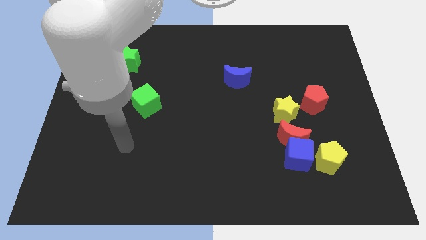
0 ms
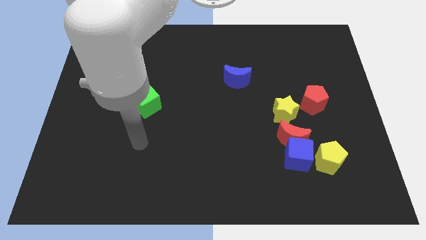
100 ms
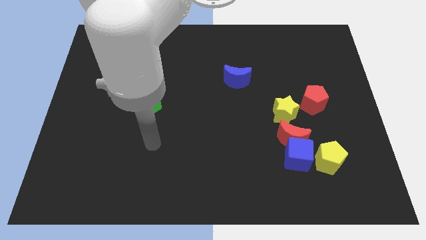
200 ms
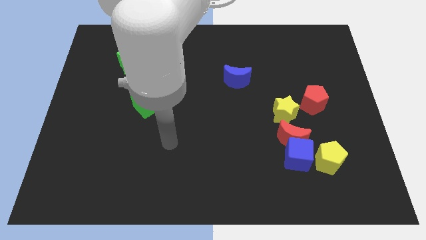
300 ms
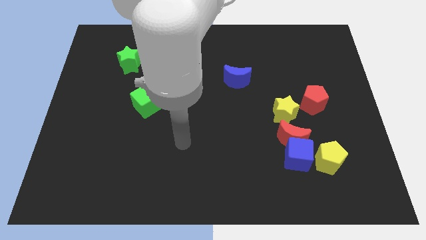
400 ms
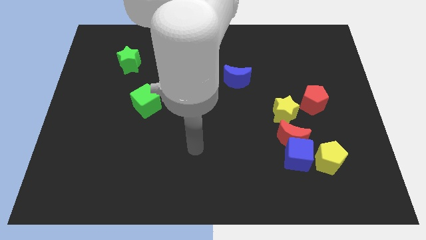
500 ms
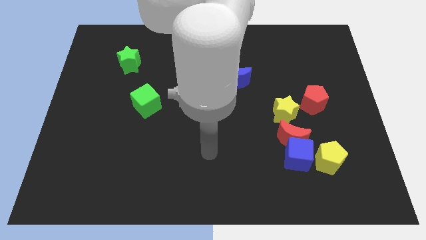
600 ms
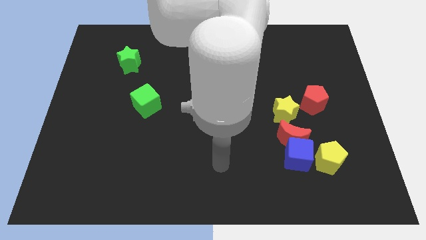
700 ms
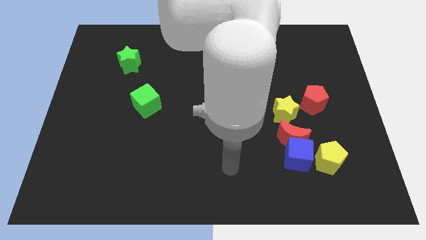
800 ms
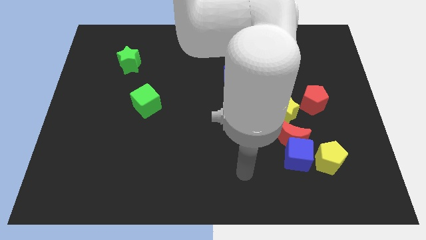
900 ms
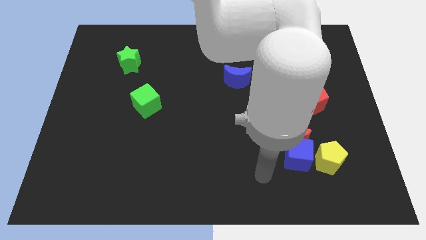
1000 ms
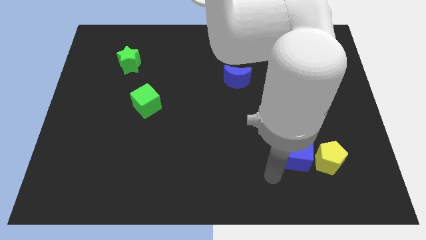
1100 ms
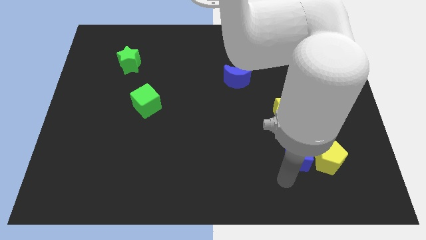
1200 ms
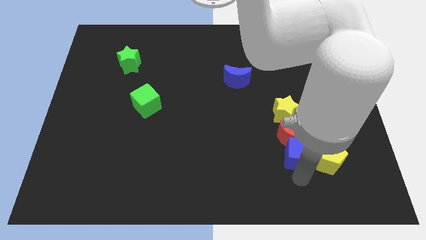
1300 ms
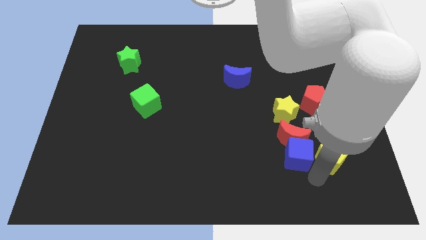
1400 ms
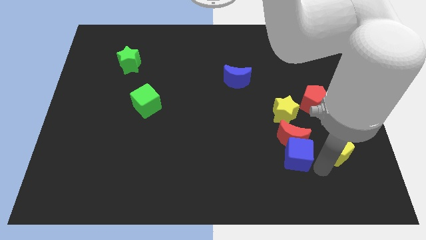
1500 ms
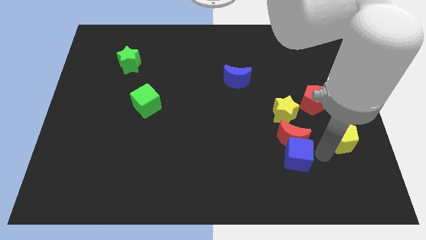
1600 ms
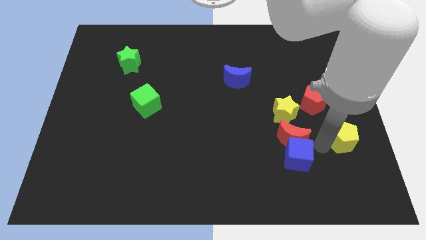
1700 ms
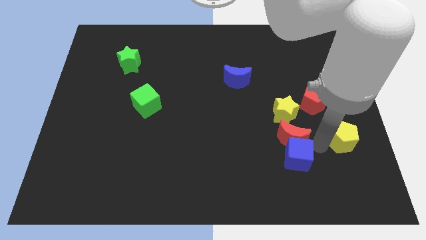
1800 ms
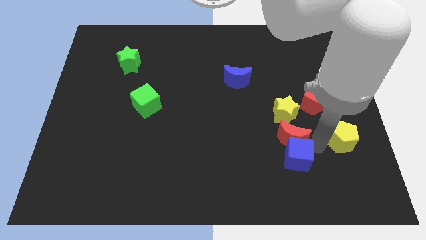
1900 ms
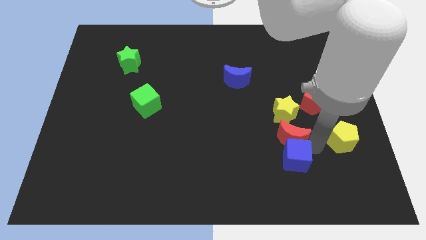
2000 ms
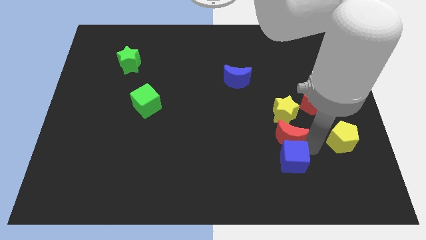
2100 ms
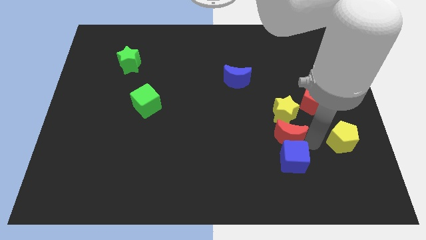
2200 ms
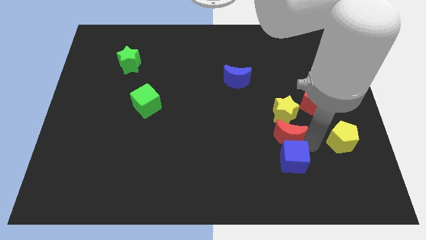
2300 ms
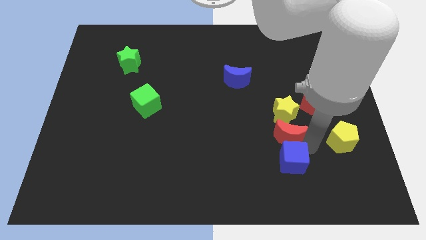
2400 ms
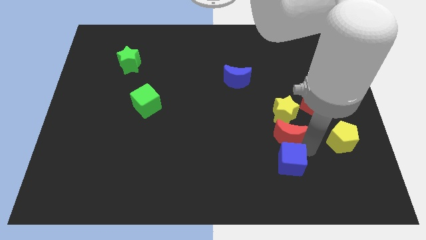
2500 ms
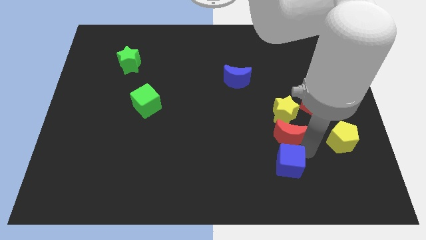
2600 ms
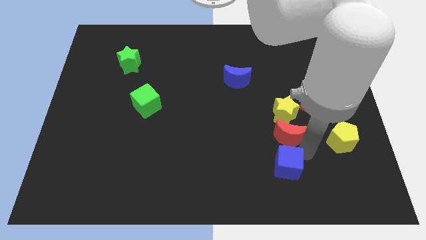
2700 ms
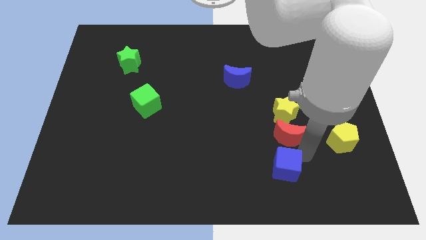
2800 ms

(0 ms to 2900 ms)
pull the blue cube apart from the red moon and yellow pentagon

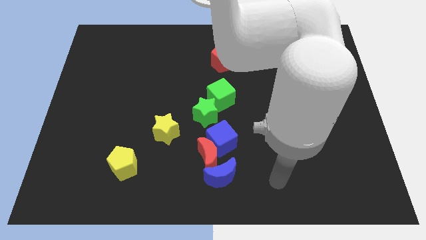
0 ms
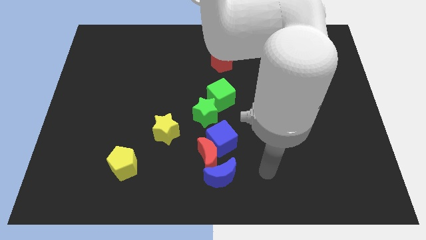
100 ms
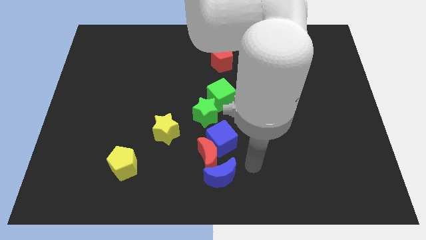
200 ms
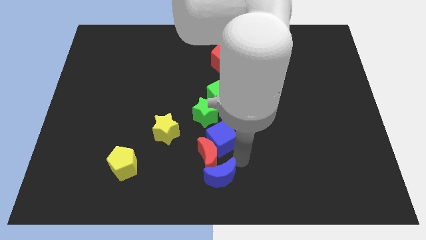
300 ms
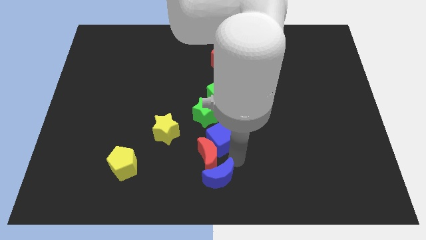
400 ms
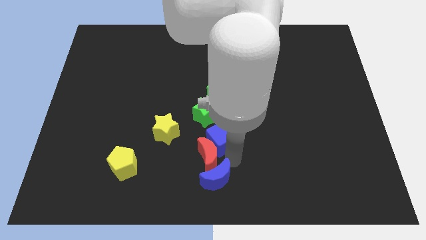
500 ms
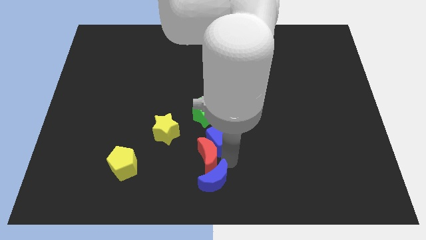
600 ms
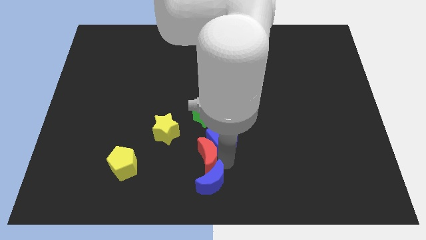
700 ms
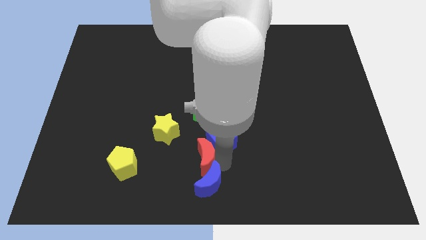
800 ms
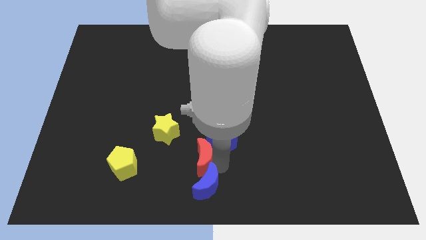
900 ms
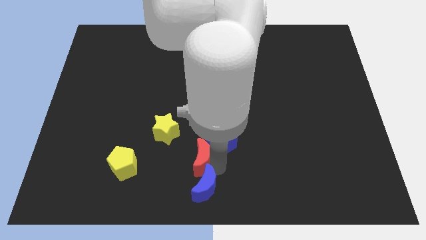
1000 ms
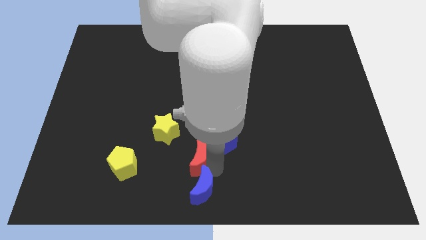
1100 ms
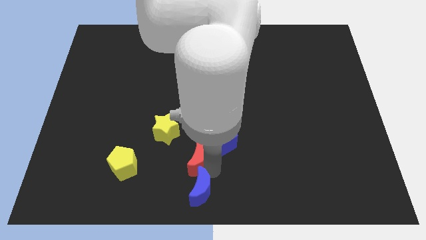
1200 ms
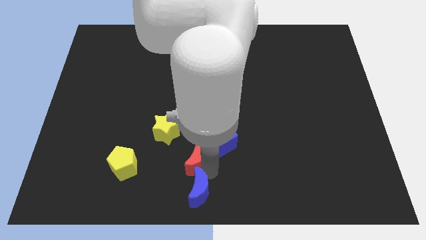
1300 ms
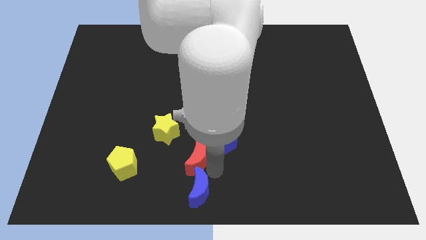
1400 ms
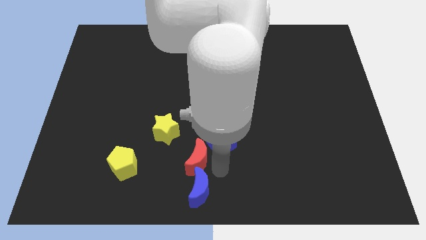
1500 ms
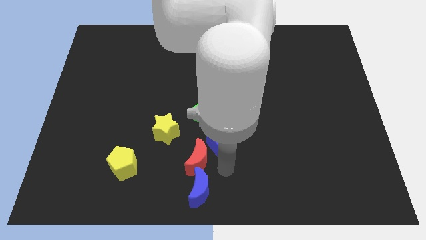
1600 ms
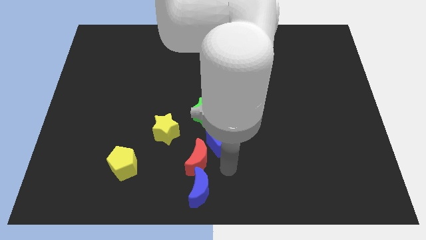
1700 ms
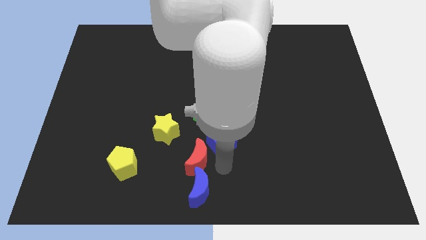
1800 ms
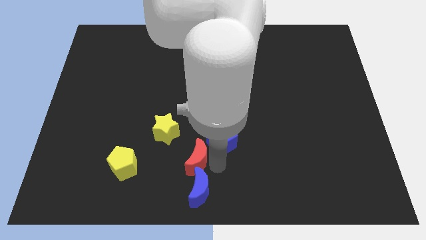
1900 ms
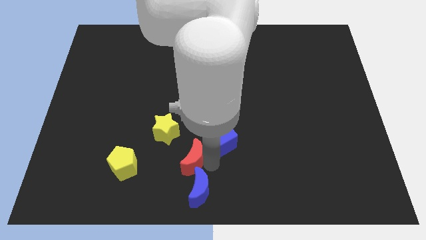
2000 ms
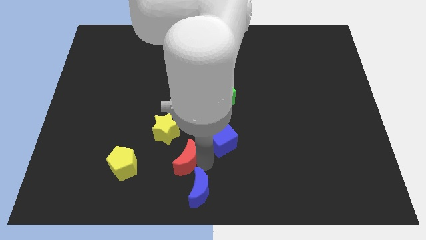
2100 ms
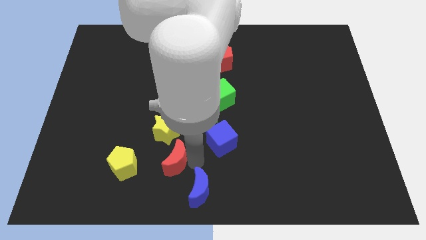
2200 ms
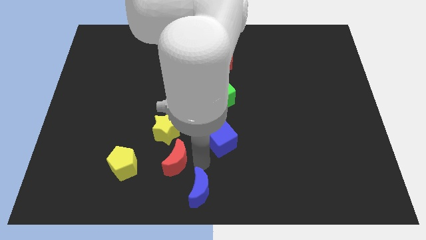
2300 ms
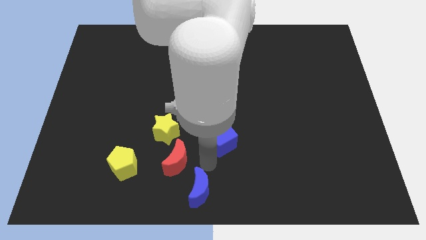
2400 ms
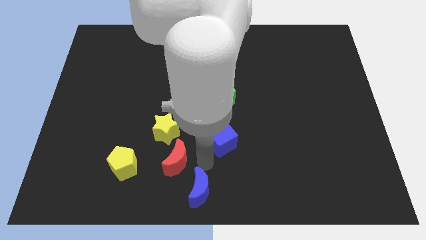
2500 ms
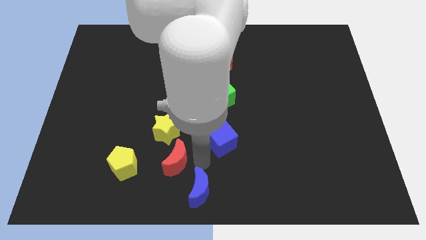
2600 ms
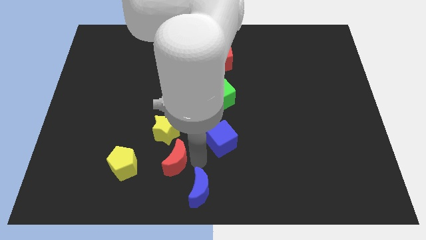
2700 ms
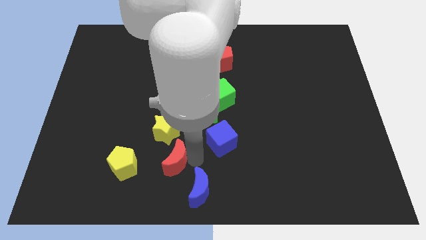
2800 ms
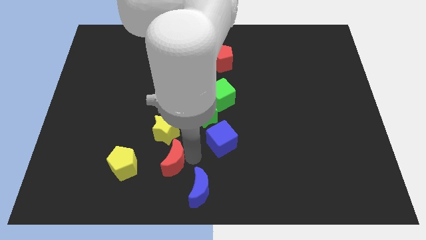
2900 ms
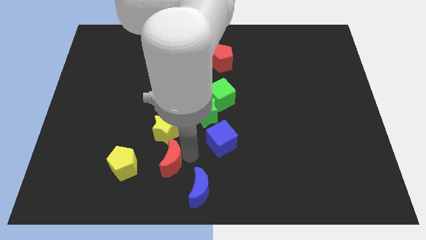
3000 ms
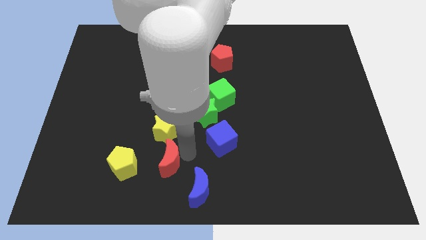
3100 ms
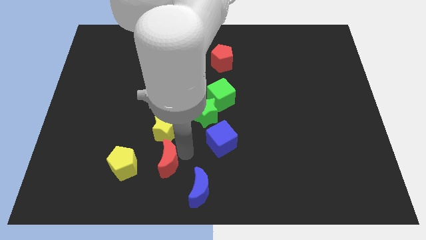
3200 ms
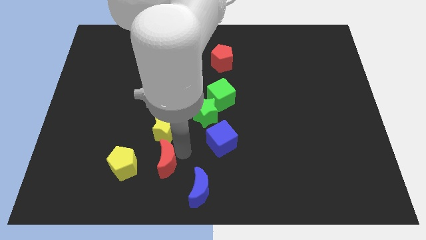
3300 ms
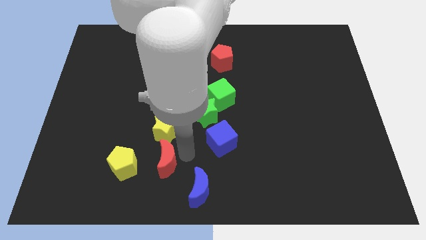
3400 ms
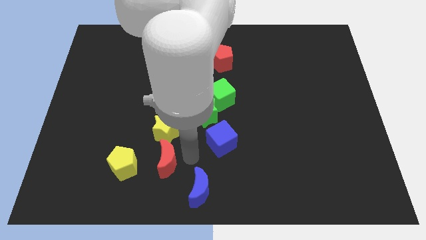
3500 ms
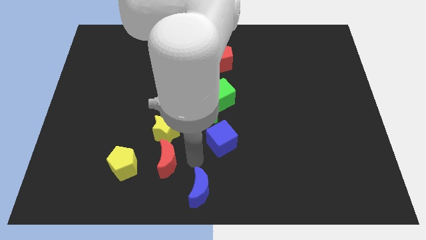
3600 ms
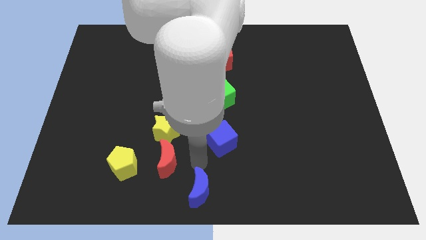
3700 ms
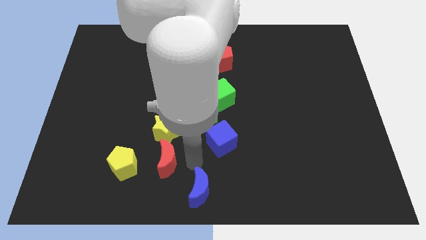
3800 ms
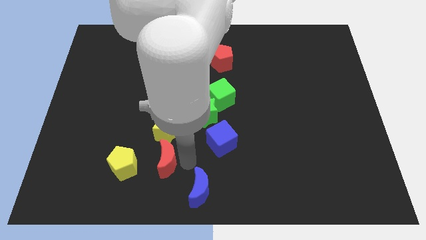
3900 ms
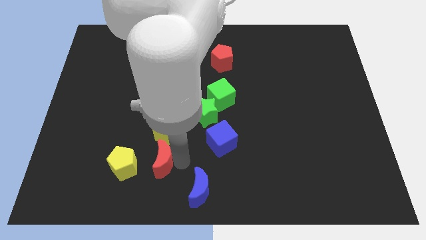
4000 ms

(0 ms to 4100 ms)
move the red moon away from the blue cube and blue moon

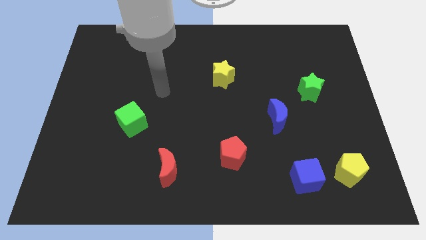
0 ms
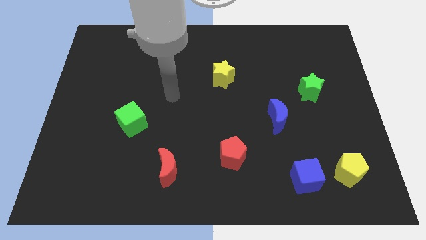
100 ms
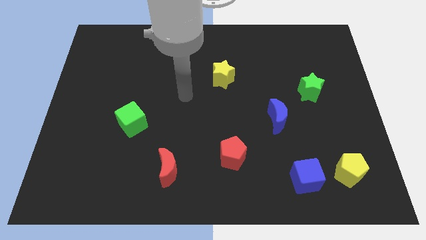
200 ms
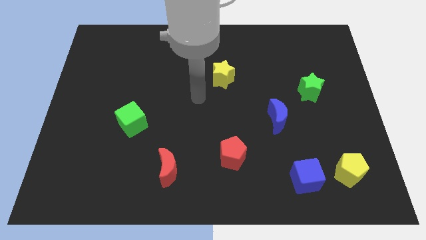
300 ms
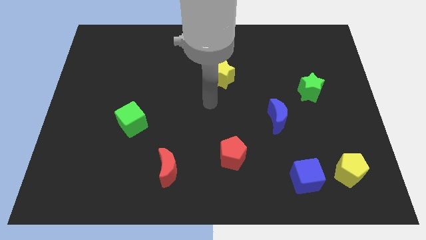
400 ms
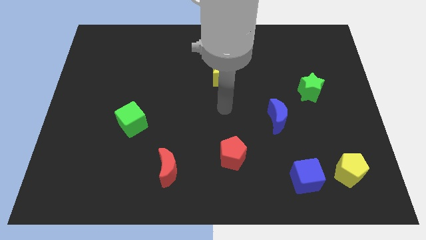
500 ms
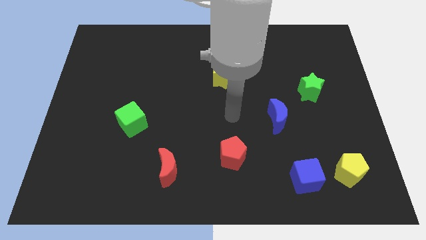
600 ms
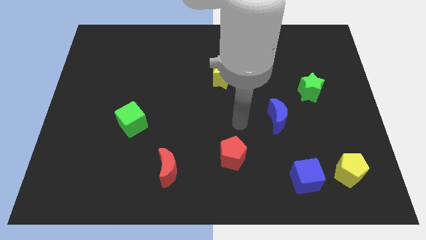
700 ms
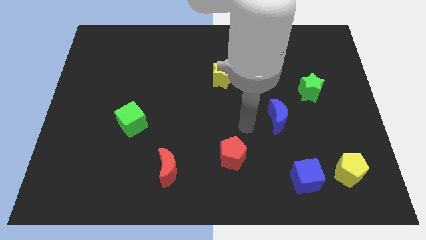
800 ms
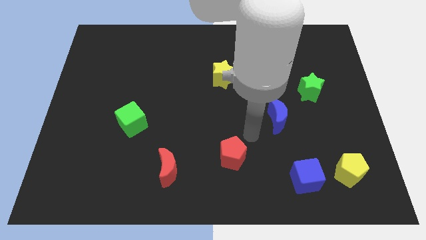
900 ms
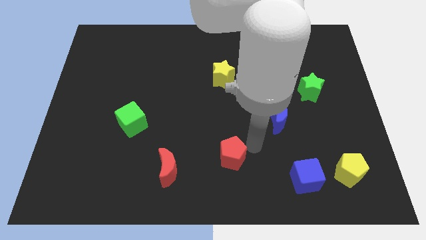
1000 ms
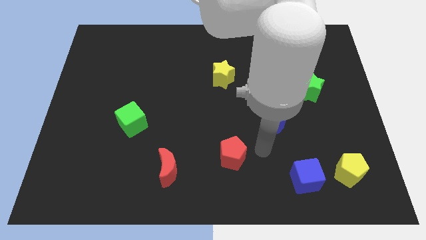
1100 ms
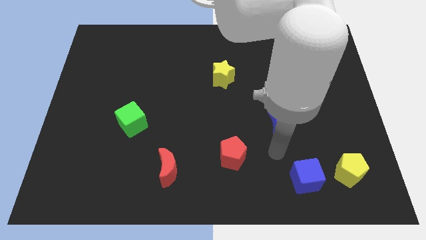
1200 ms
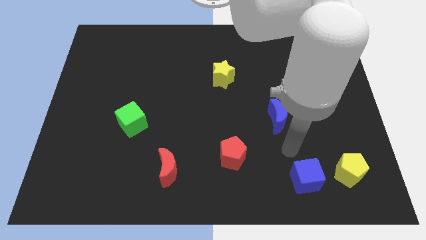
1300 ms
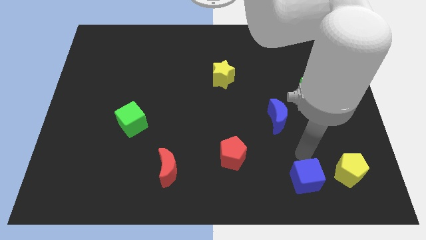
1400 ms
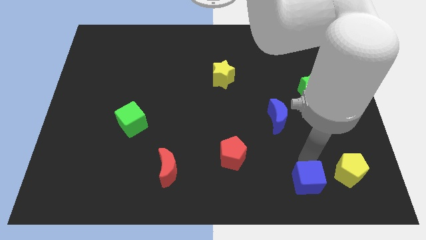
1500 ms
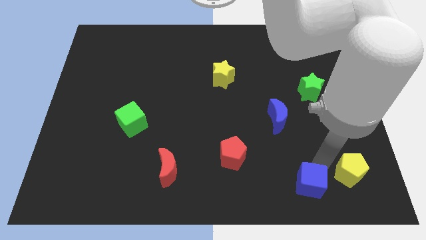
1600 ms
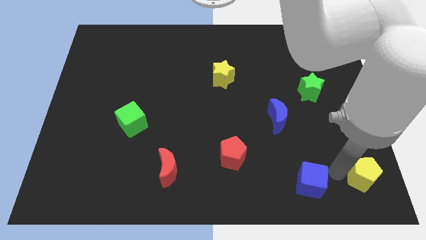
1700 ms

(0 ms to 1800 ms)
pull the blue cube apart from the yellow pentagon

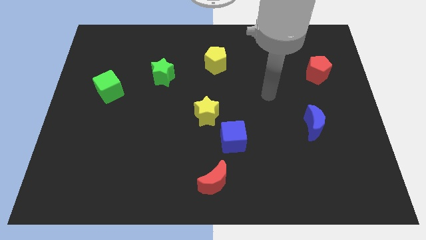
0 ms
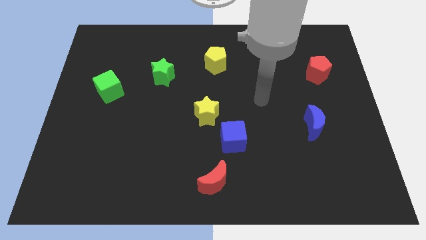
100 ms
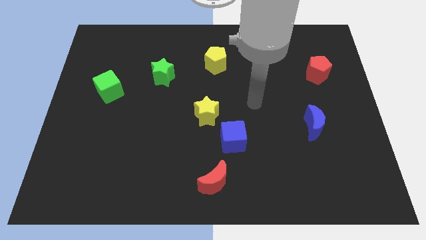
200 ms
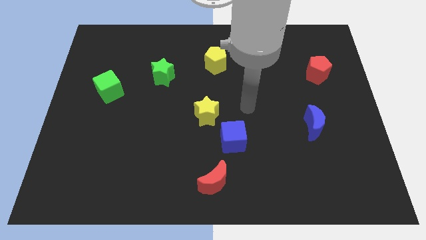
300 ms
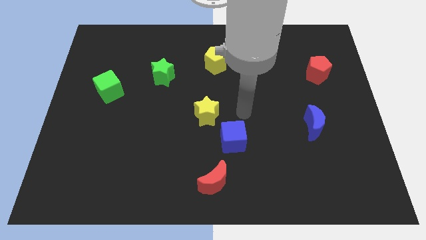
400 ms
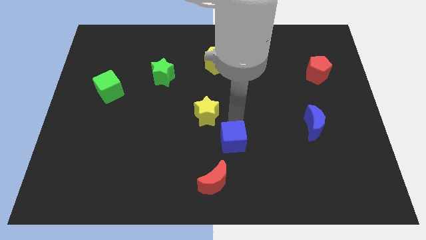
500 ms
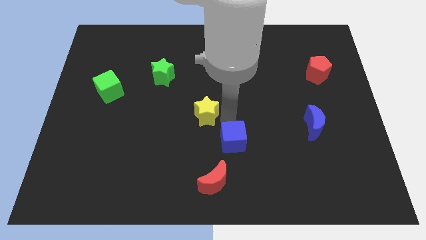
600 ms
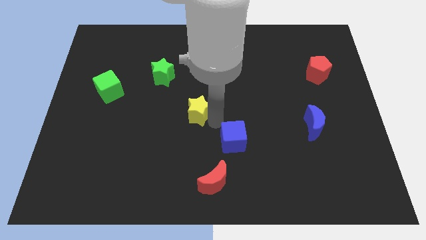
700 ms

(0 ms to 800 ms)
move the blue cube away from the yellow star
